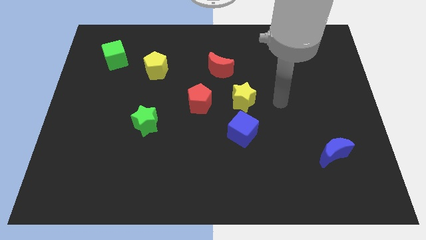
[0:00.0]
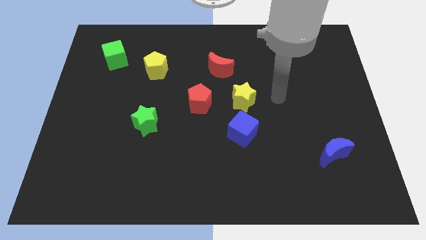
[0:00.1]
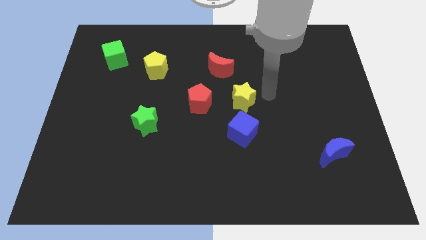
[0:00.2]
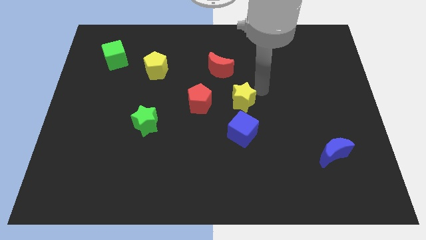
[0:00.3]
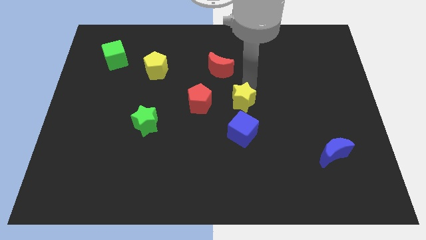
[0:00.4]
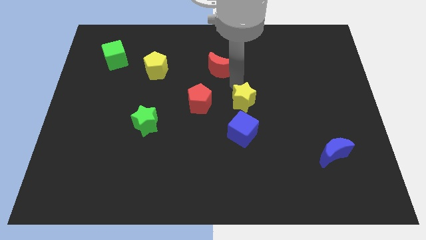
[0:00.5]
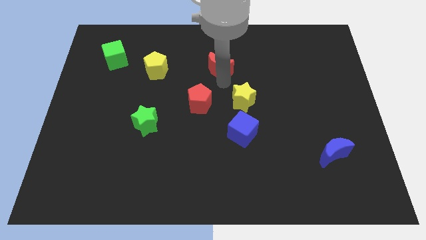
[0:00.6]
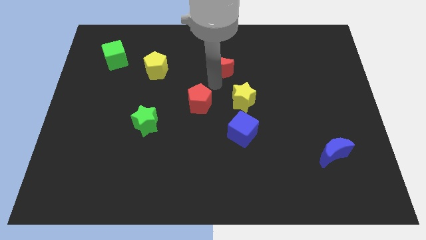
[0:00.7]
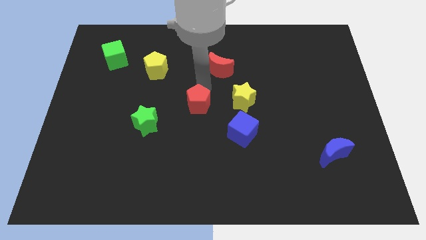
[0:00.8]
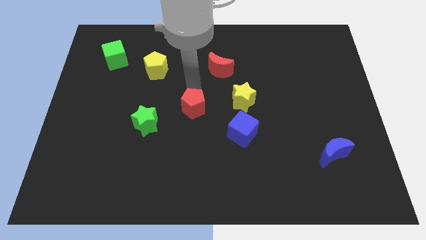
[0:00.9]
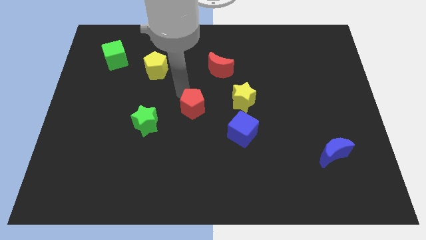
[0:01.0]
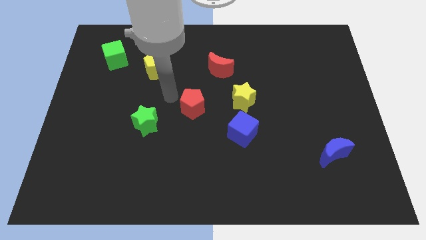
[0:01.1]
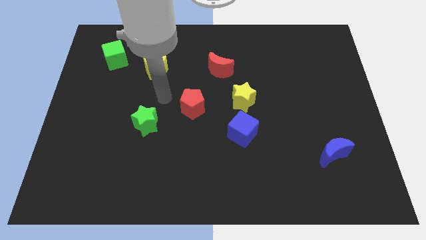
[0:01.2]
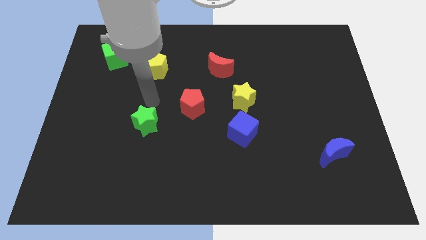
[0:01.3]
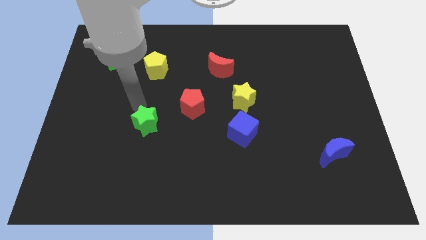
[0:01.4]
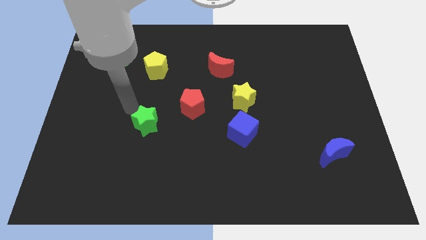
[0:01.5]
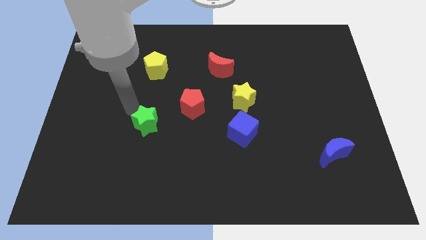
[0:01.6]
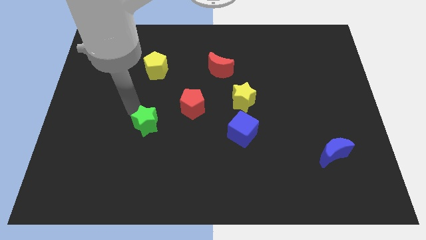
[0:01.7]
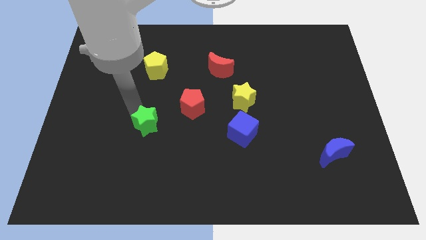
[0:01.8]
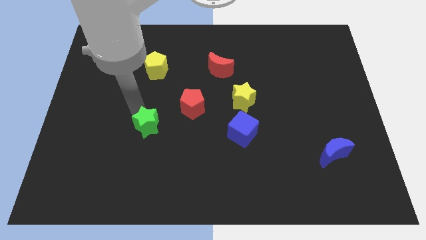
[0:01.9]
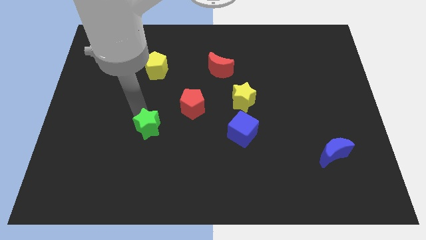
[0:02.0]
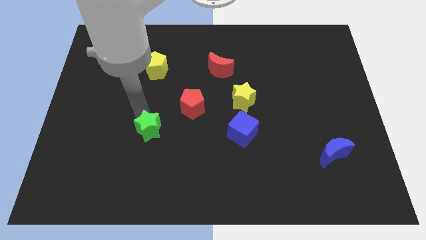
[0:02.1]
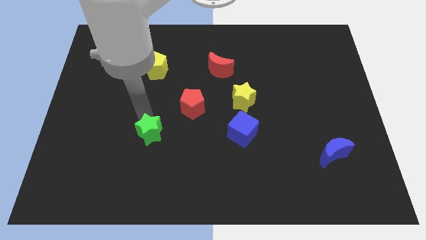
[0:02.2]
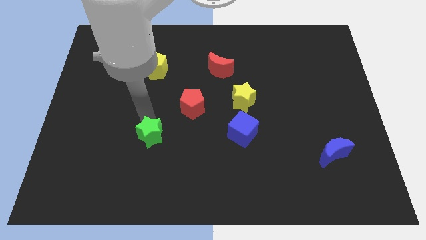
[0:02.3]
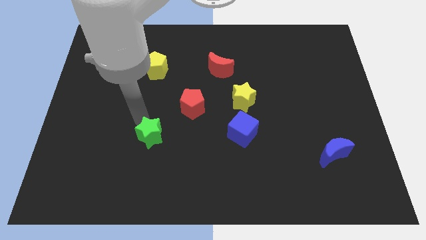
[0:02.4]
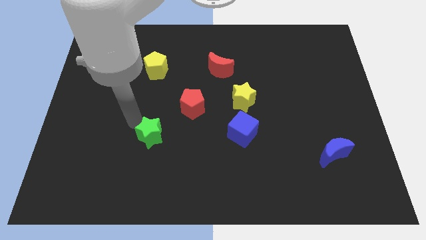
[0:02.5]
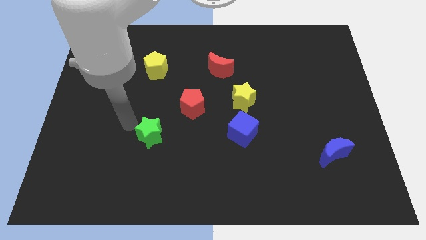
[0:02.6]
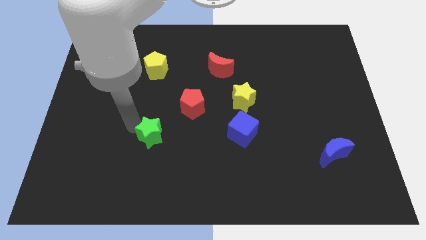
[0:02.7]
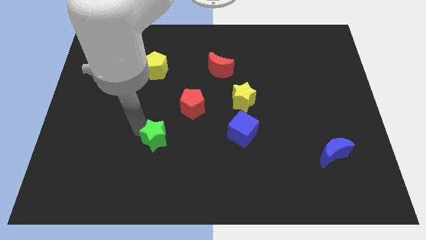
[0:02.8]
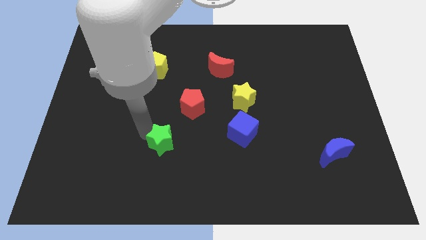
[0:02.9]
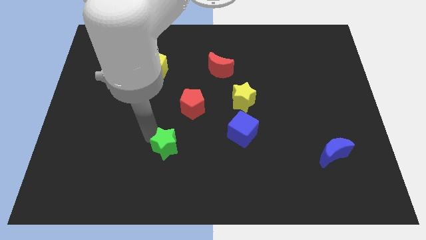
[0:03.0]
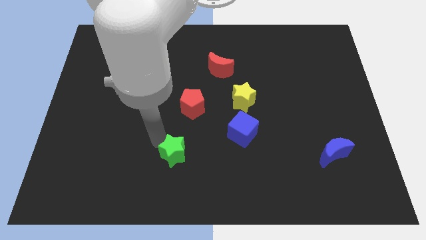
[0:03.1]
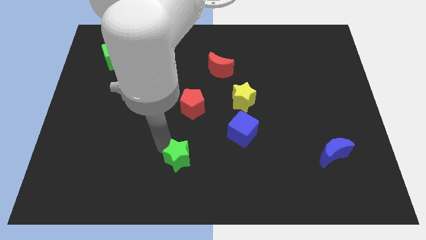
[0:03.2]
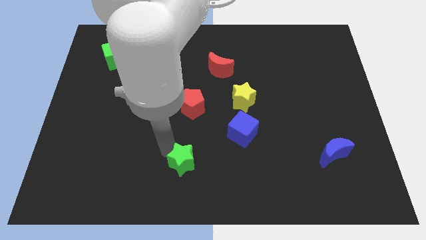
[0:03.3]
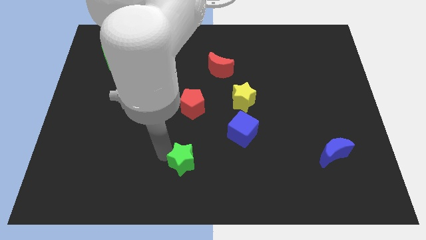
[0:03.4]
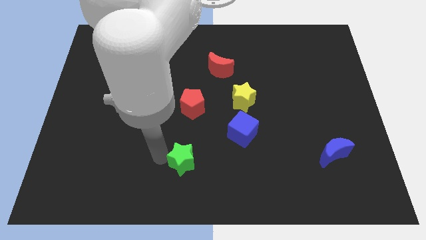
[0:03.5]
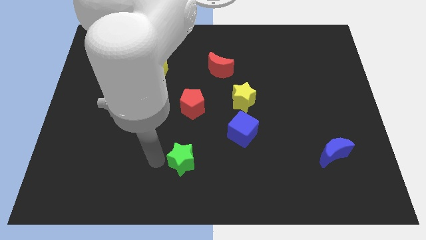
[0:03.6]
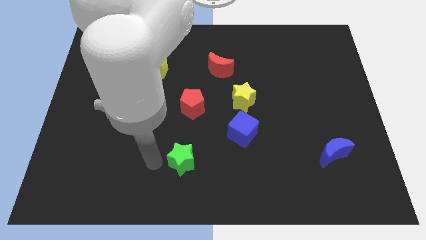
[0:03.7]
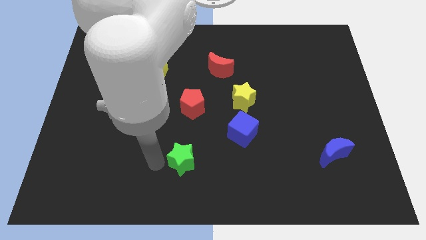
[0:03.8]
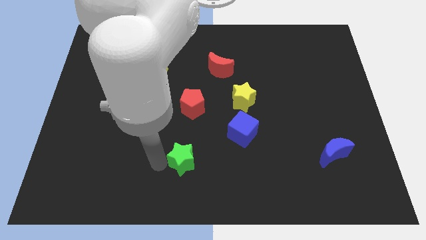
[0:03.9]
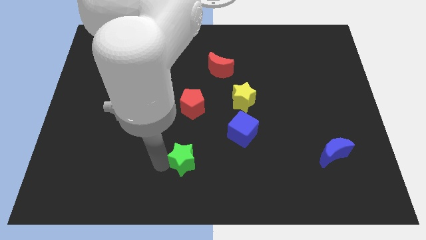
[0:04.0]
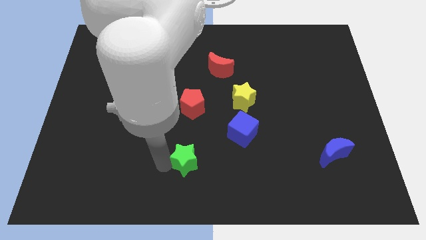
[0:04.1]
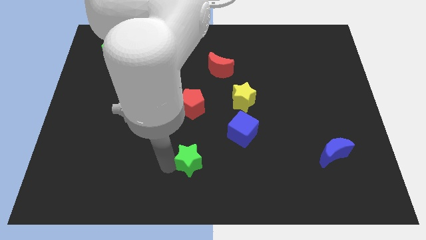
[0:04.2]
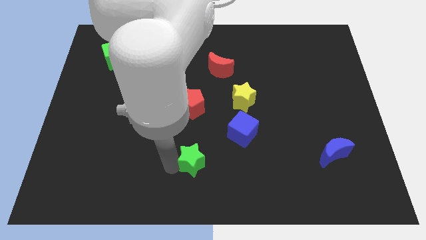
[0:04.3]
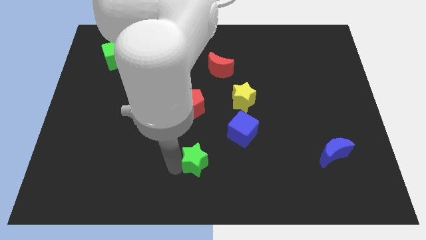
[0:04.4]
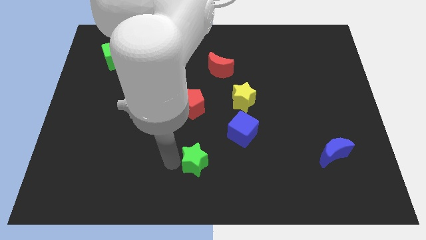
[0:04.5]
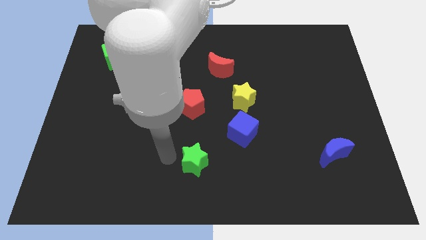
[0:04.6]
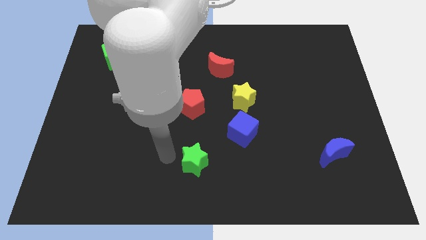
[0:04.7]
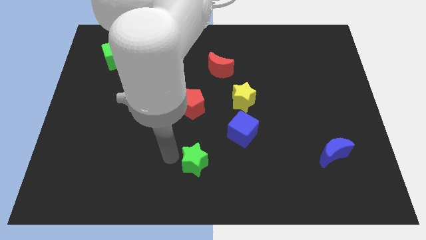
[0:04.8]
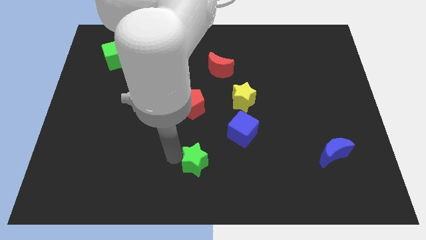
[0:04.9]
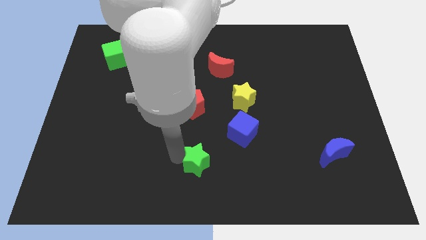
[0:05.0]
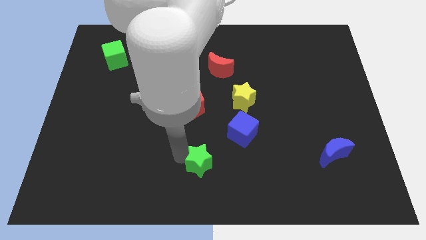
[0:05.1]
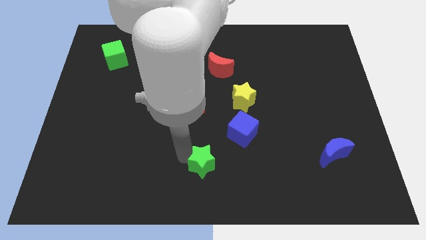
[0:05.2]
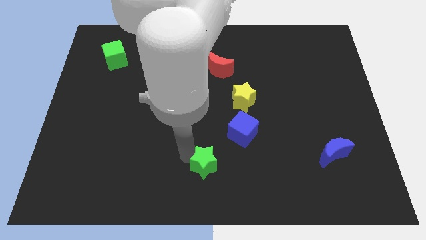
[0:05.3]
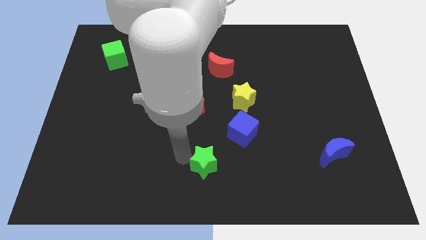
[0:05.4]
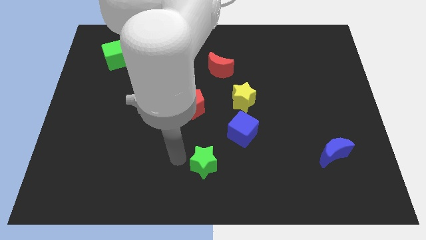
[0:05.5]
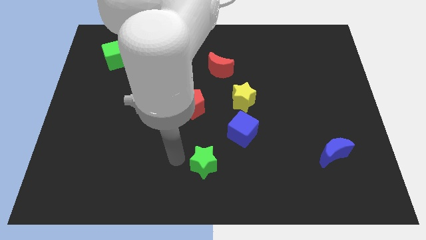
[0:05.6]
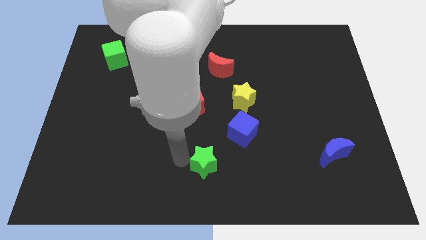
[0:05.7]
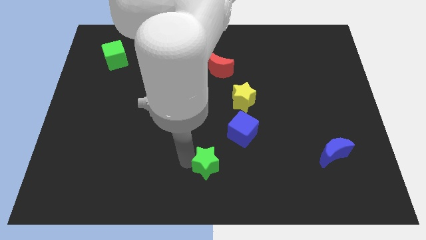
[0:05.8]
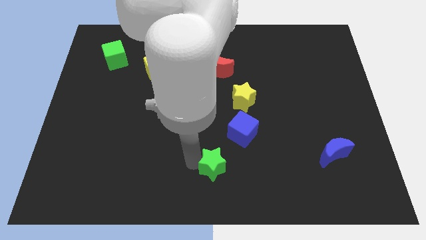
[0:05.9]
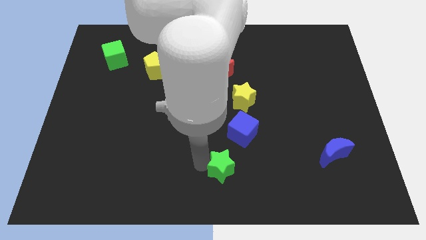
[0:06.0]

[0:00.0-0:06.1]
put the green star below the blue cube

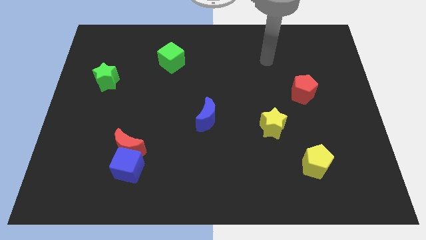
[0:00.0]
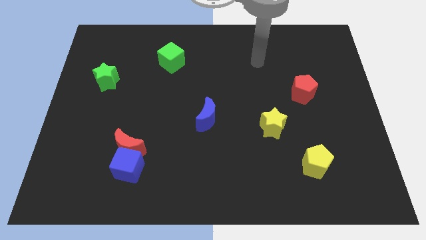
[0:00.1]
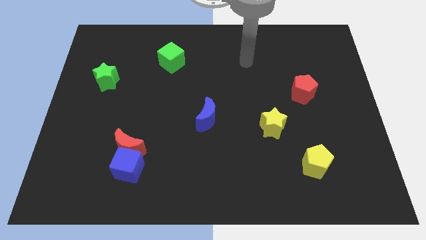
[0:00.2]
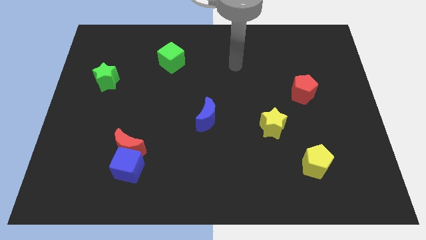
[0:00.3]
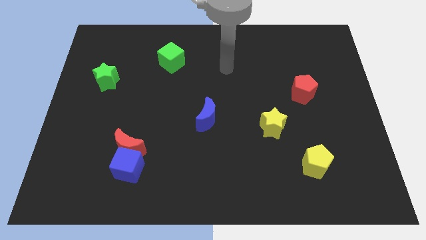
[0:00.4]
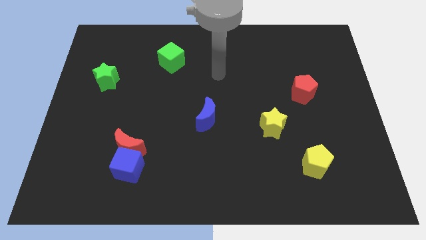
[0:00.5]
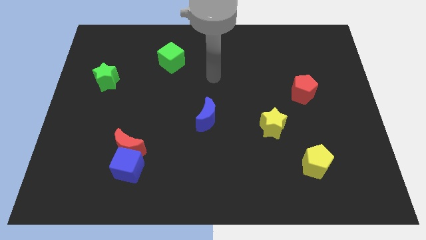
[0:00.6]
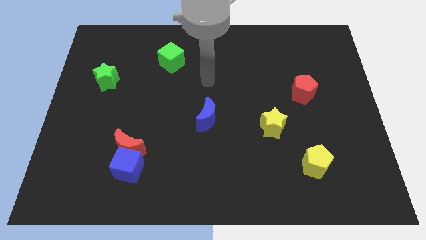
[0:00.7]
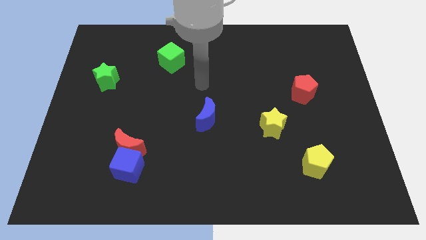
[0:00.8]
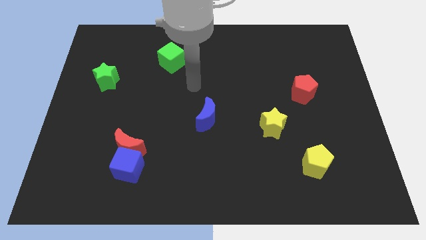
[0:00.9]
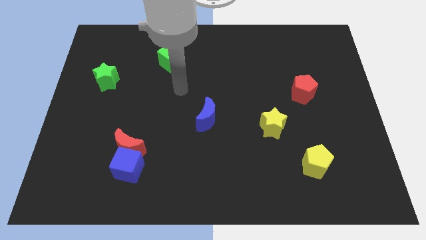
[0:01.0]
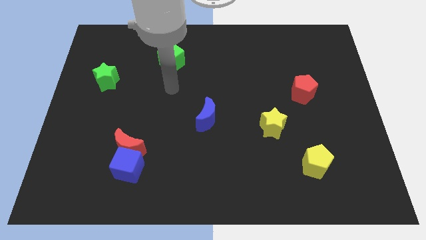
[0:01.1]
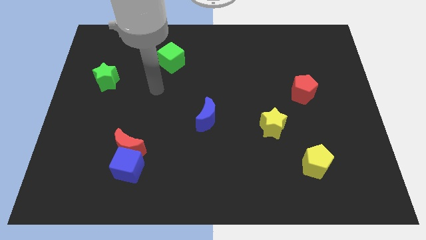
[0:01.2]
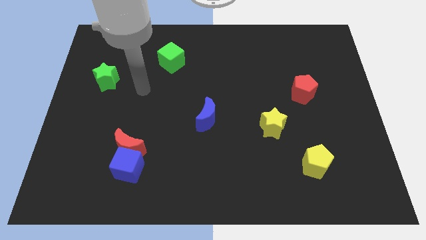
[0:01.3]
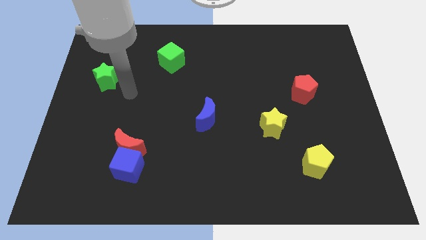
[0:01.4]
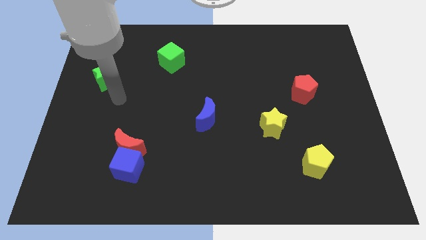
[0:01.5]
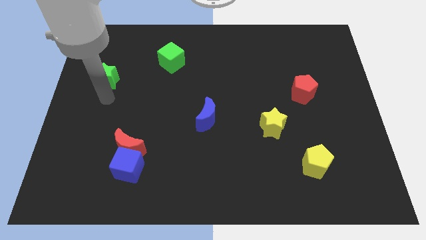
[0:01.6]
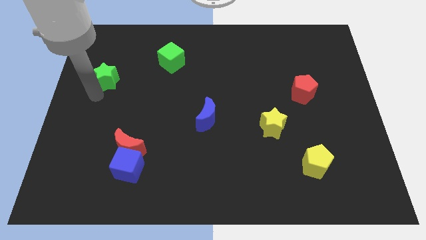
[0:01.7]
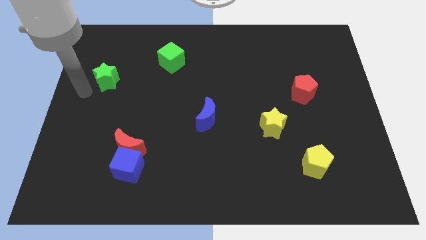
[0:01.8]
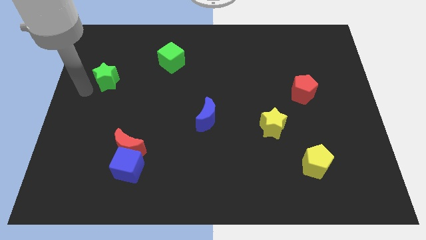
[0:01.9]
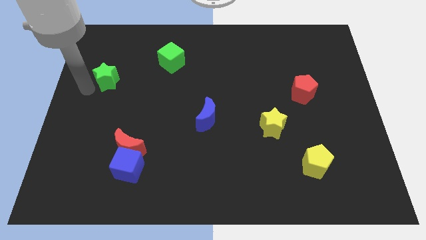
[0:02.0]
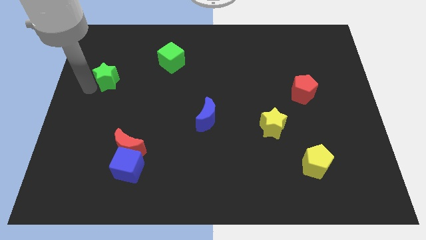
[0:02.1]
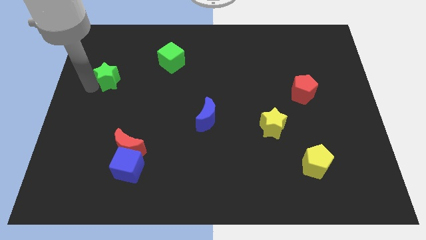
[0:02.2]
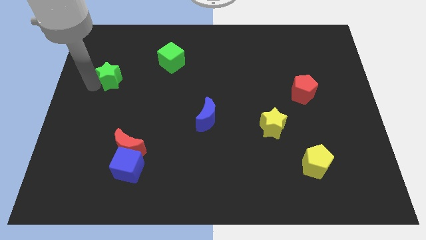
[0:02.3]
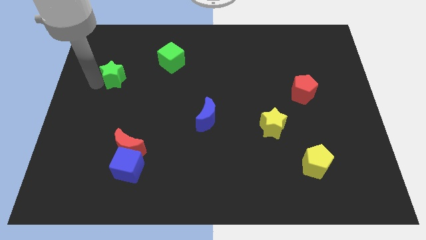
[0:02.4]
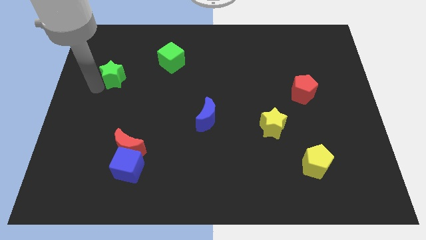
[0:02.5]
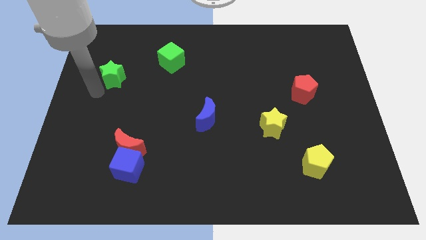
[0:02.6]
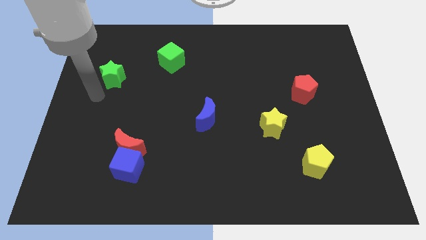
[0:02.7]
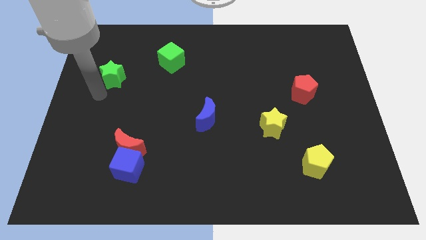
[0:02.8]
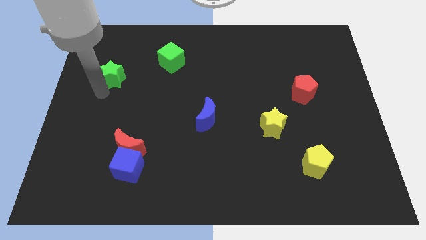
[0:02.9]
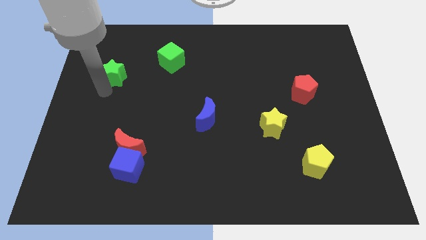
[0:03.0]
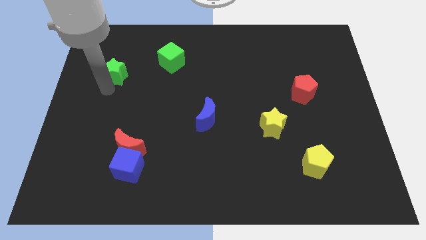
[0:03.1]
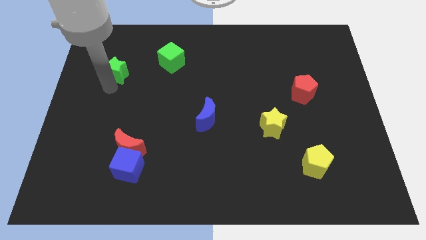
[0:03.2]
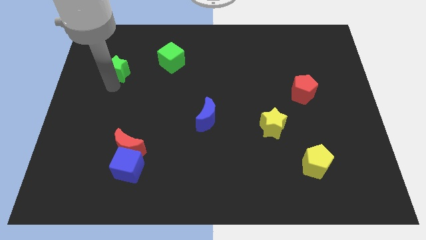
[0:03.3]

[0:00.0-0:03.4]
move the green star just left of the green cube
